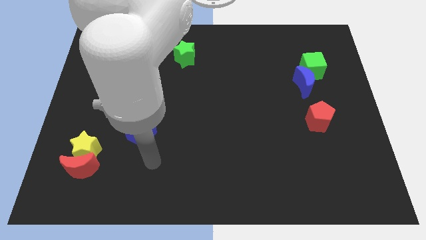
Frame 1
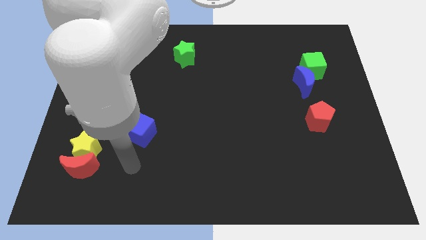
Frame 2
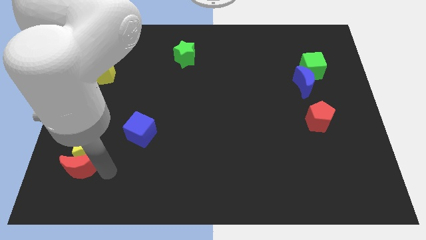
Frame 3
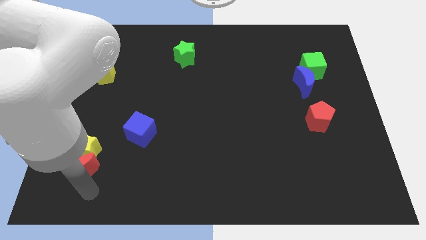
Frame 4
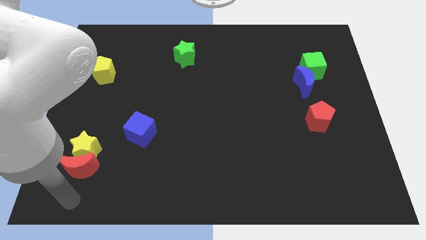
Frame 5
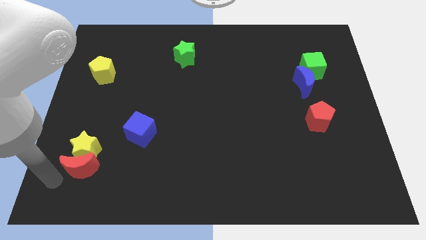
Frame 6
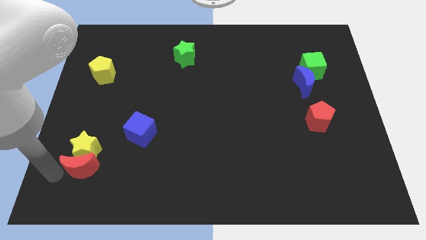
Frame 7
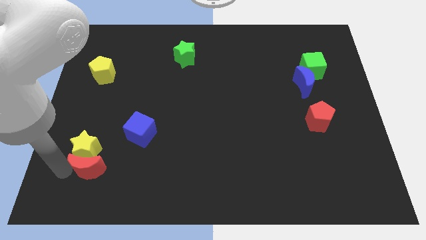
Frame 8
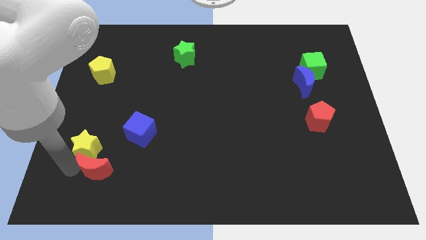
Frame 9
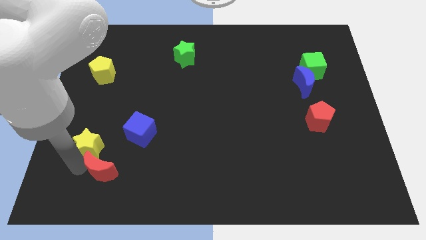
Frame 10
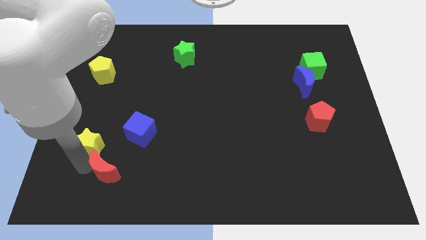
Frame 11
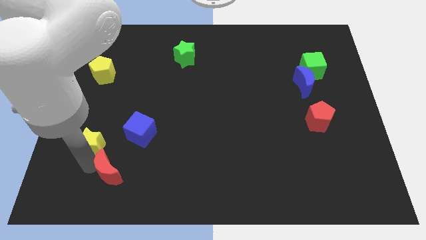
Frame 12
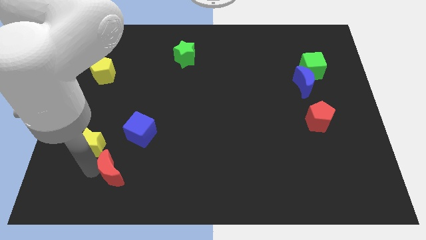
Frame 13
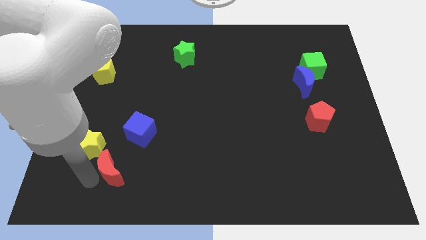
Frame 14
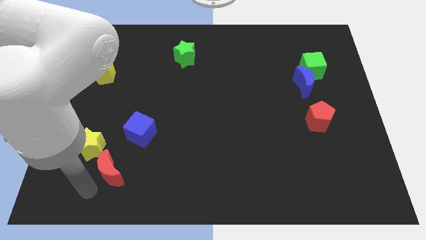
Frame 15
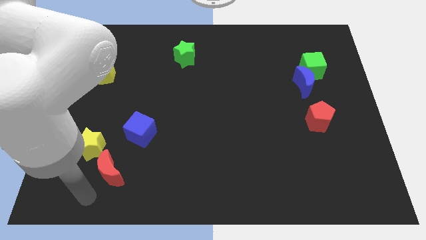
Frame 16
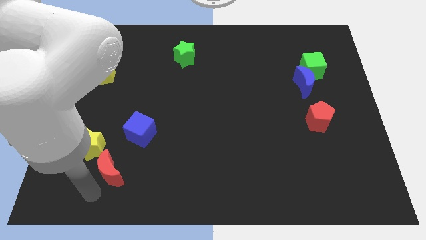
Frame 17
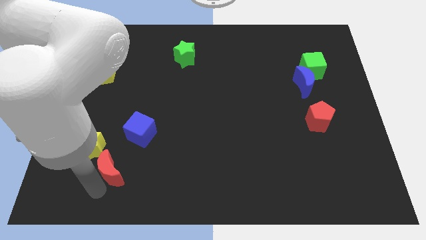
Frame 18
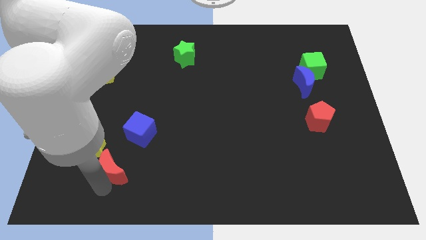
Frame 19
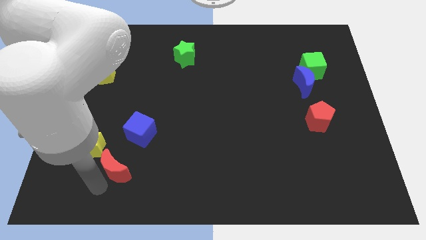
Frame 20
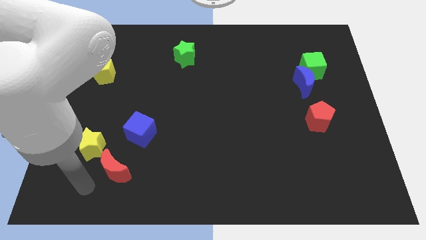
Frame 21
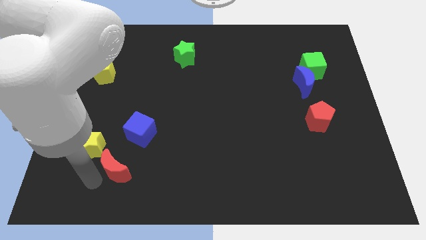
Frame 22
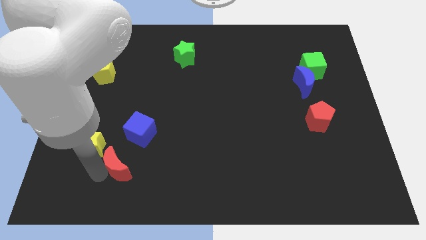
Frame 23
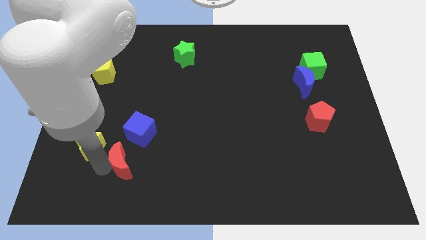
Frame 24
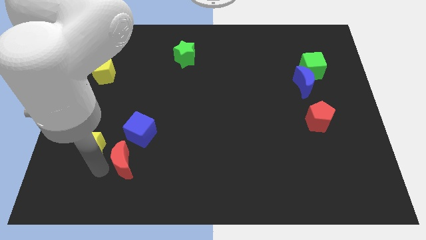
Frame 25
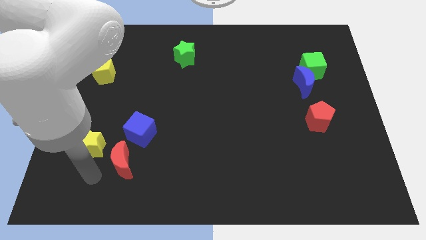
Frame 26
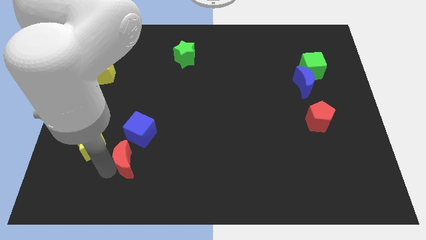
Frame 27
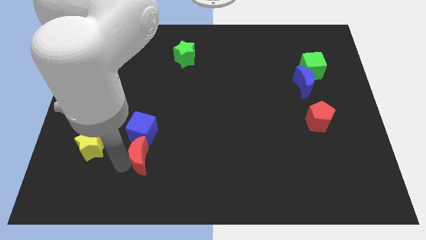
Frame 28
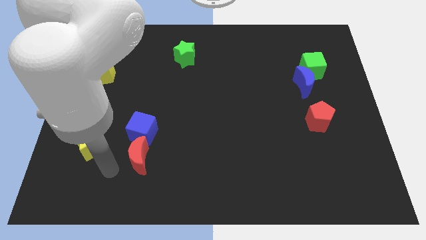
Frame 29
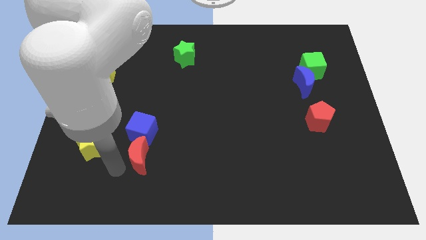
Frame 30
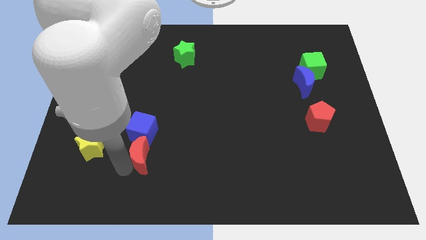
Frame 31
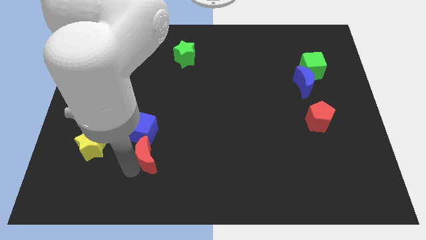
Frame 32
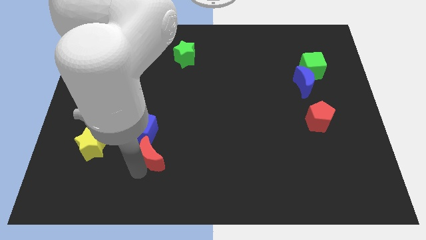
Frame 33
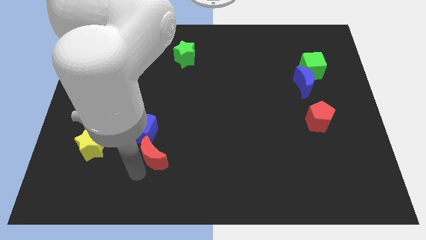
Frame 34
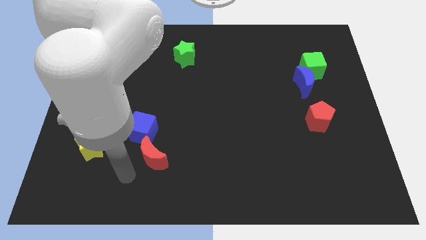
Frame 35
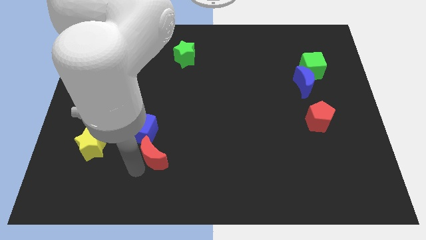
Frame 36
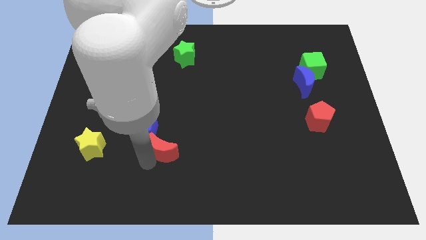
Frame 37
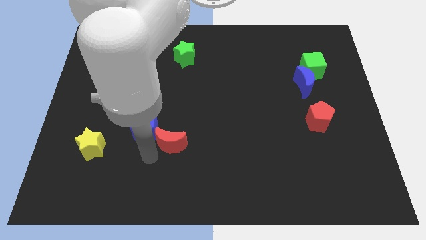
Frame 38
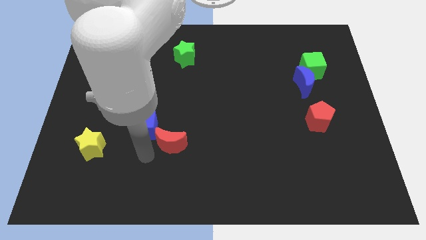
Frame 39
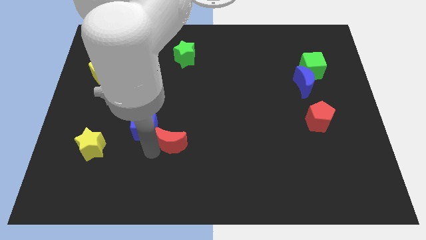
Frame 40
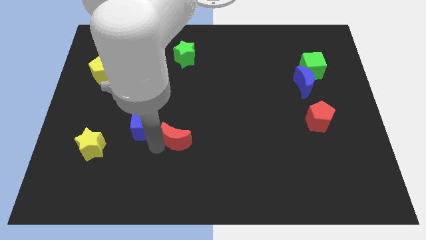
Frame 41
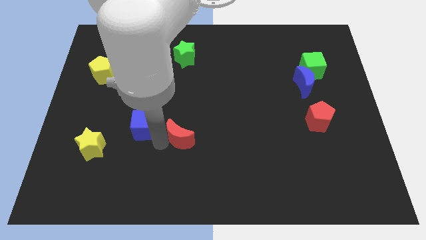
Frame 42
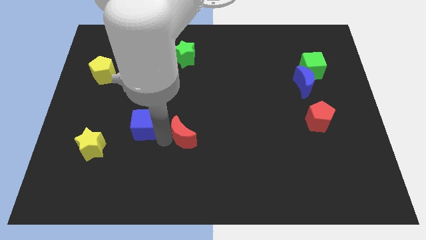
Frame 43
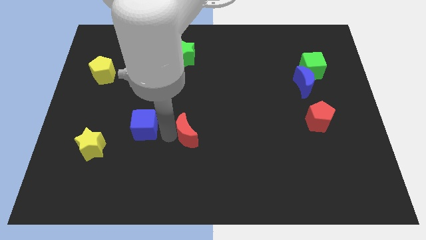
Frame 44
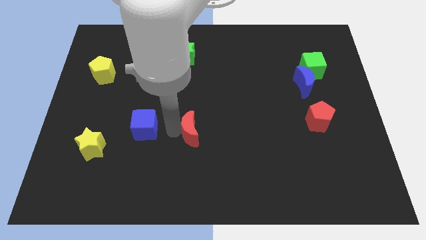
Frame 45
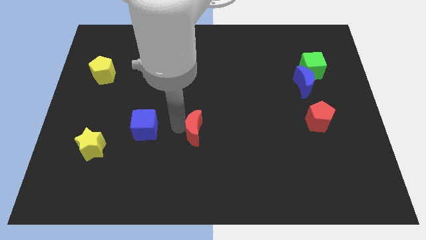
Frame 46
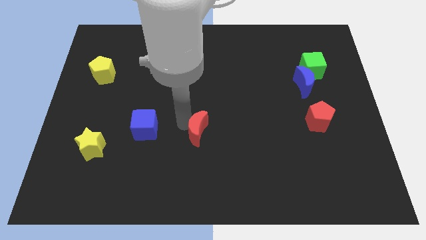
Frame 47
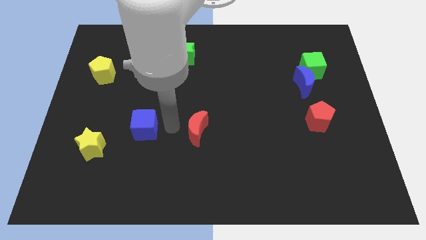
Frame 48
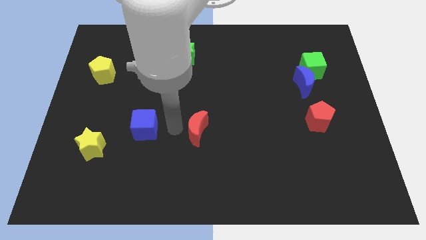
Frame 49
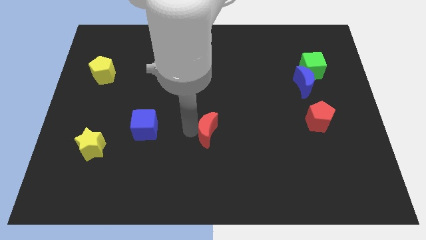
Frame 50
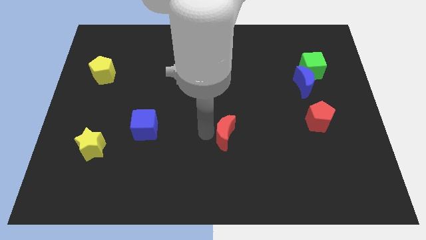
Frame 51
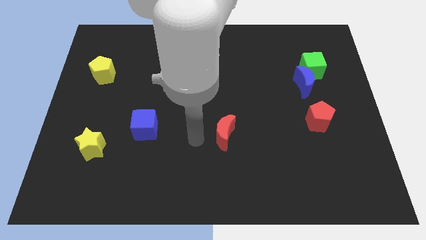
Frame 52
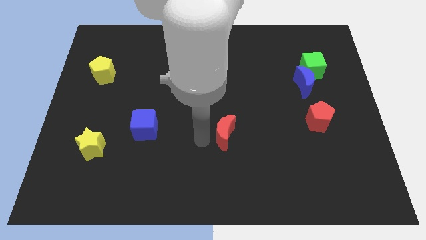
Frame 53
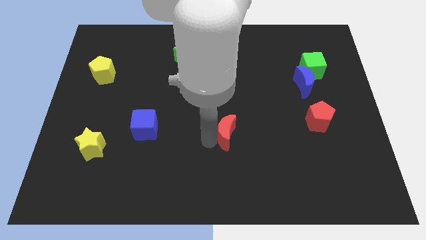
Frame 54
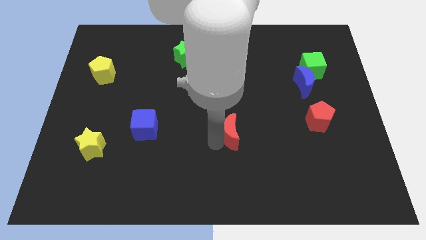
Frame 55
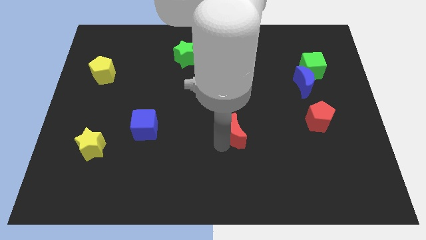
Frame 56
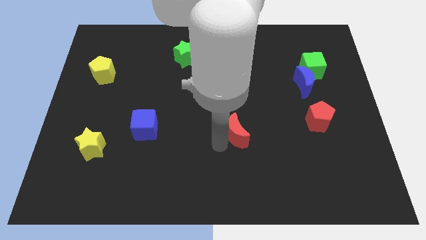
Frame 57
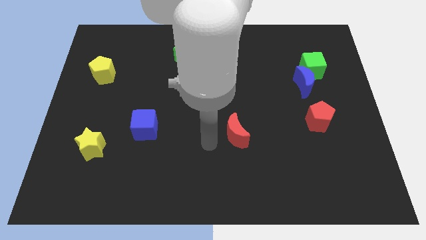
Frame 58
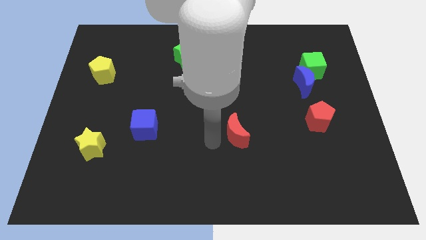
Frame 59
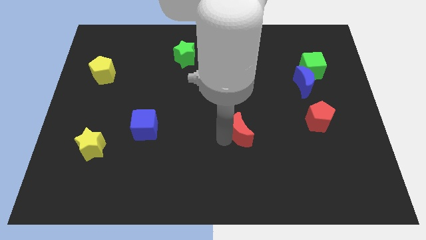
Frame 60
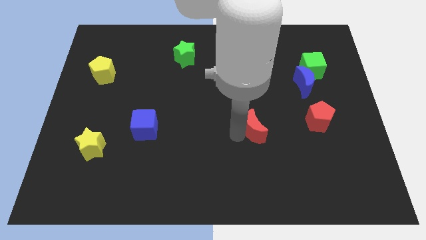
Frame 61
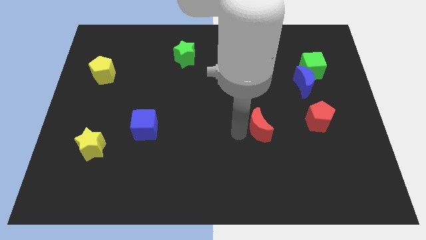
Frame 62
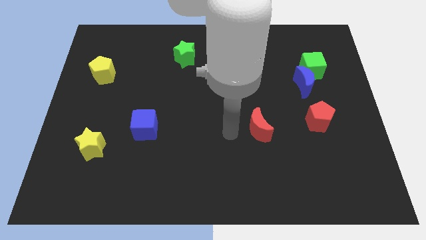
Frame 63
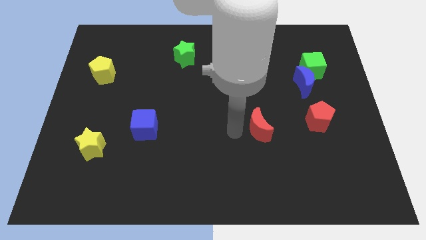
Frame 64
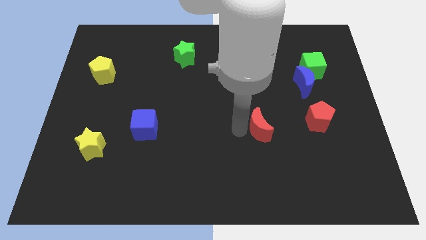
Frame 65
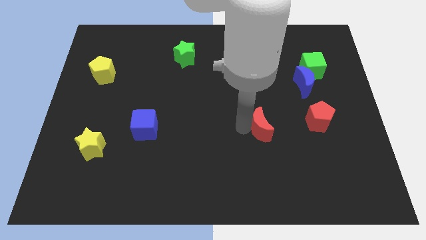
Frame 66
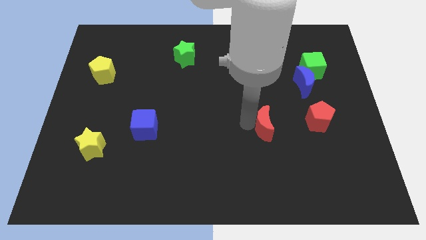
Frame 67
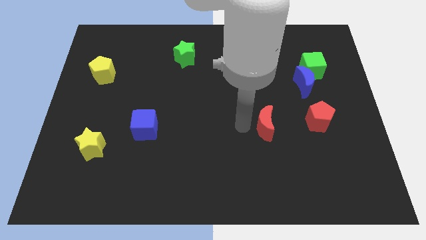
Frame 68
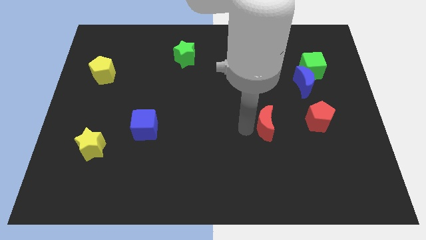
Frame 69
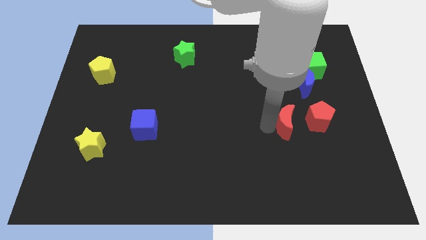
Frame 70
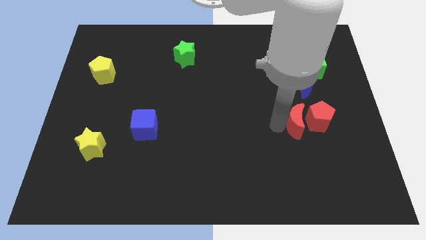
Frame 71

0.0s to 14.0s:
slide the red moon to the red pentagon

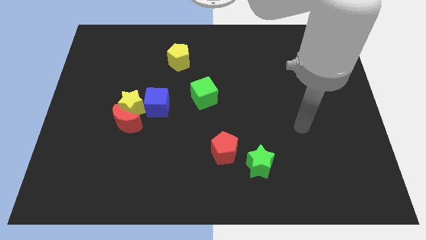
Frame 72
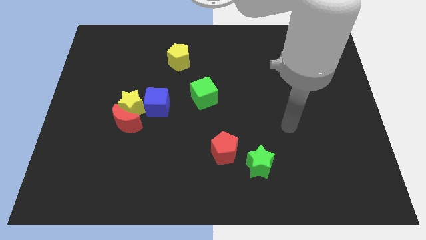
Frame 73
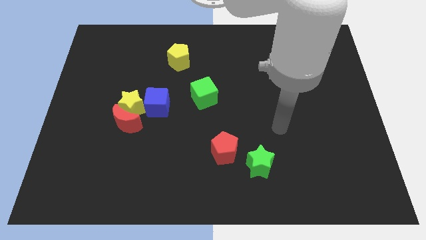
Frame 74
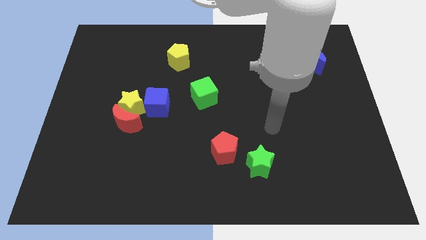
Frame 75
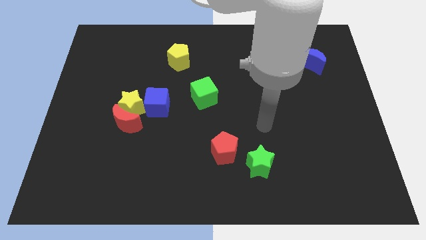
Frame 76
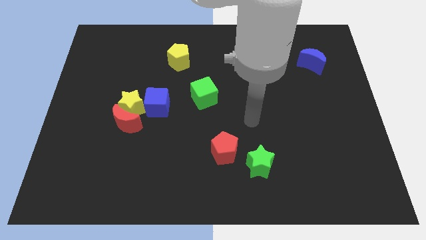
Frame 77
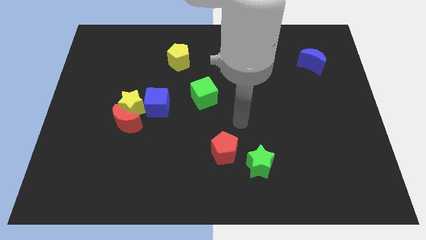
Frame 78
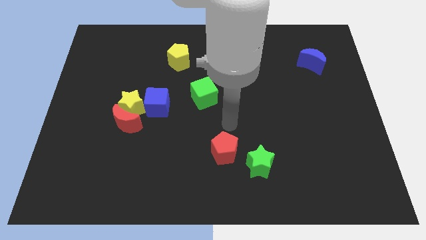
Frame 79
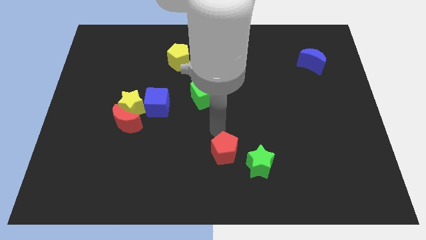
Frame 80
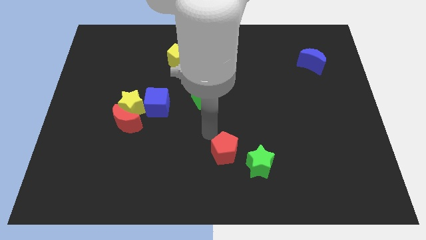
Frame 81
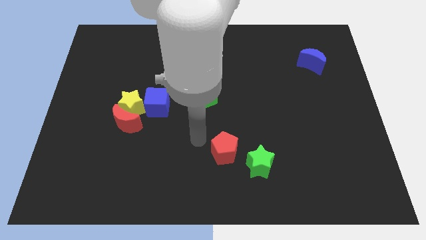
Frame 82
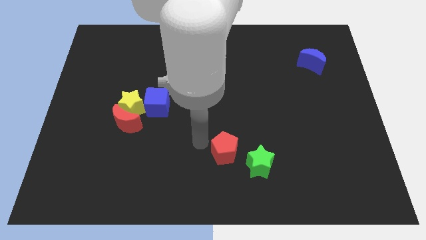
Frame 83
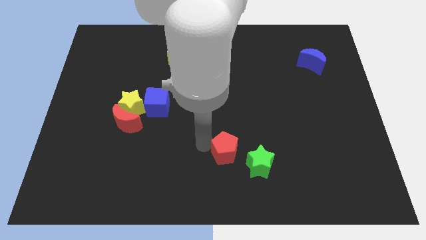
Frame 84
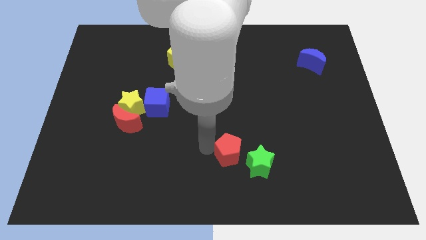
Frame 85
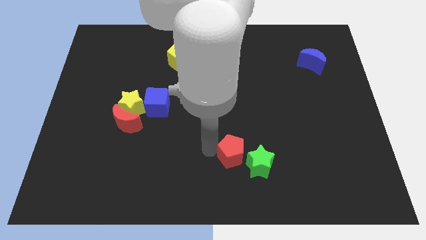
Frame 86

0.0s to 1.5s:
slide the red pentagon to the green star
